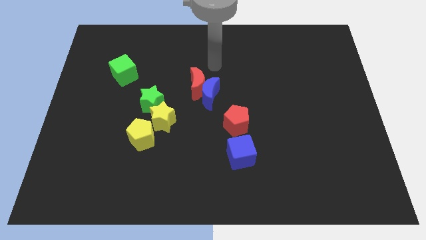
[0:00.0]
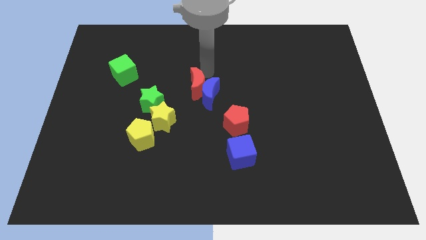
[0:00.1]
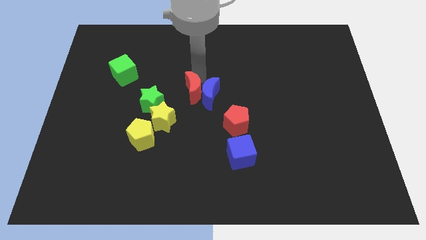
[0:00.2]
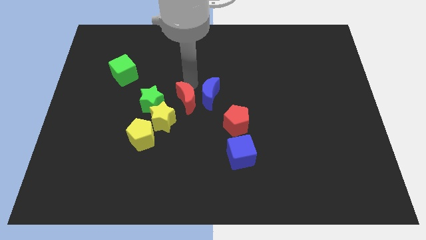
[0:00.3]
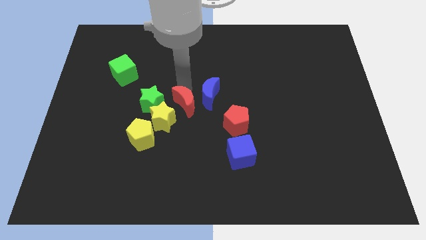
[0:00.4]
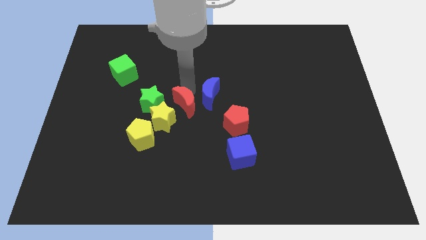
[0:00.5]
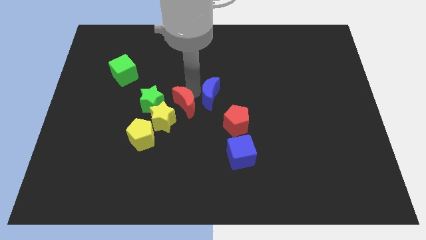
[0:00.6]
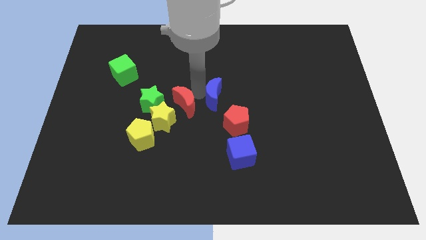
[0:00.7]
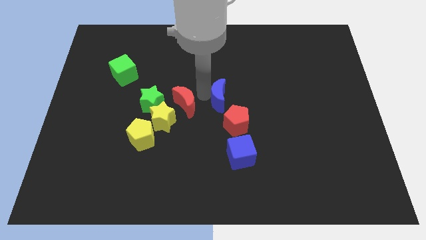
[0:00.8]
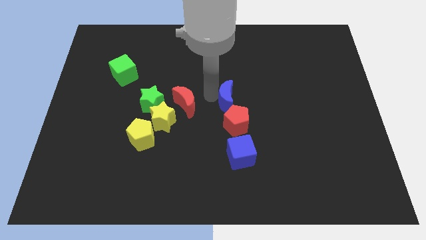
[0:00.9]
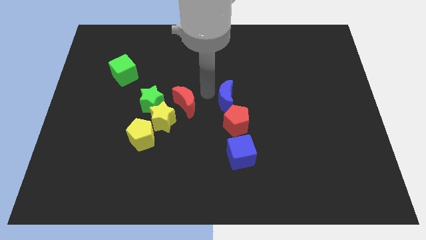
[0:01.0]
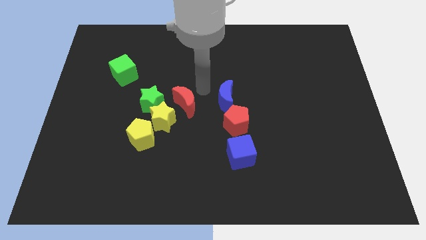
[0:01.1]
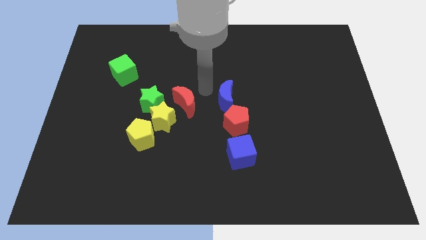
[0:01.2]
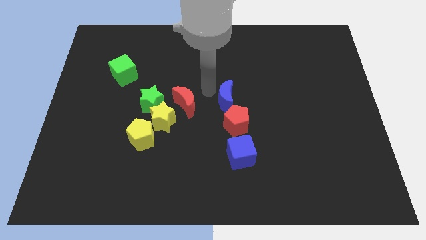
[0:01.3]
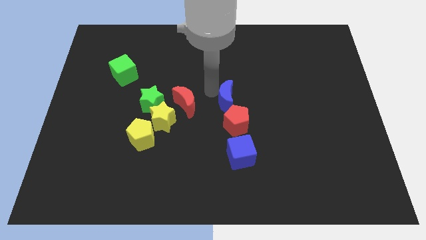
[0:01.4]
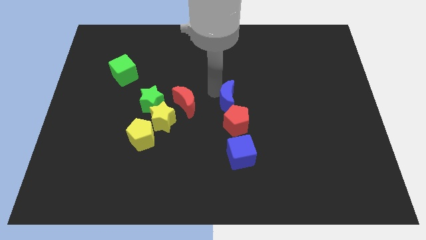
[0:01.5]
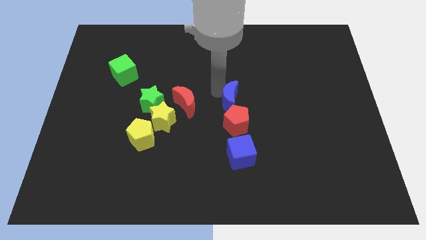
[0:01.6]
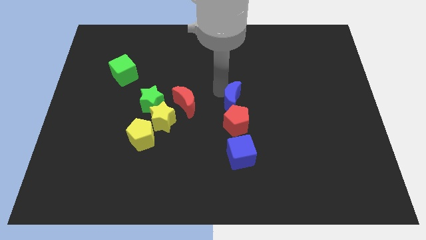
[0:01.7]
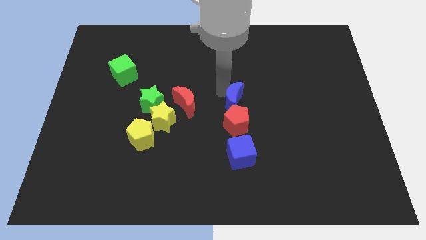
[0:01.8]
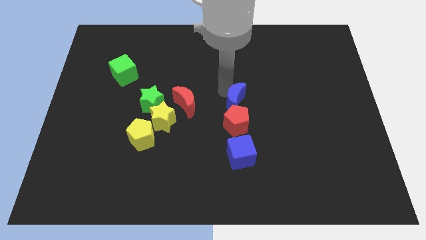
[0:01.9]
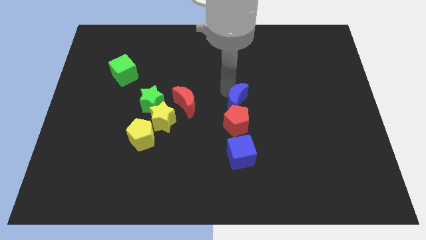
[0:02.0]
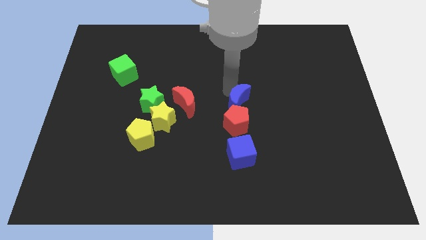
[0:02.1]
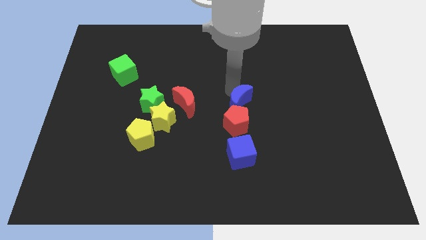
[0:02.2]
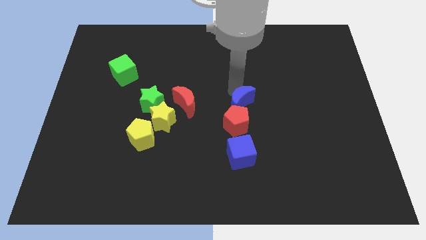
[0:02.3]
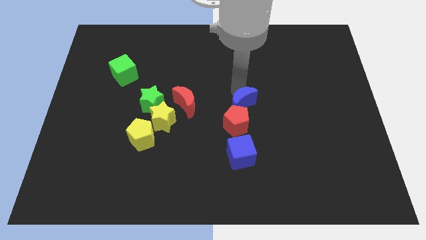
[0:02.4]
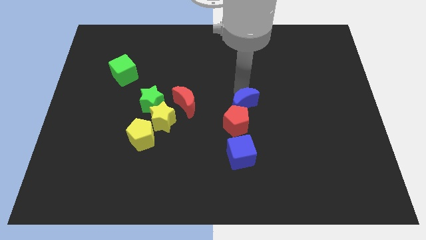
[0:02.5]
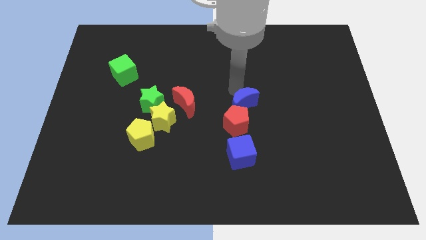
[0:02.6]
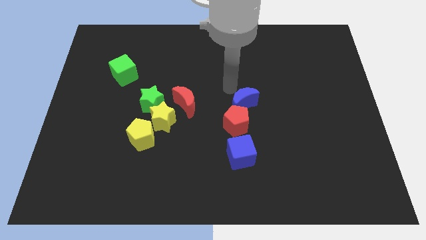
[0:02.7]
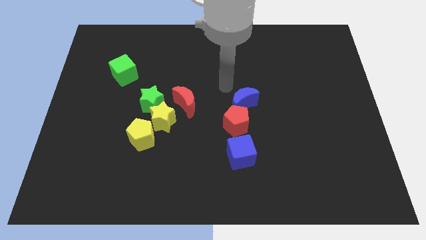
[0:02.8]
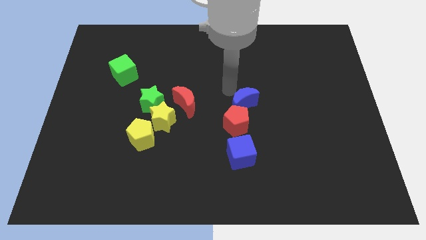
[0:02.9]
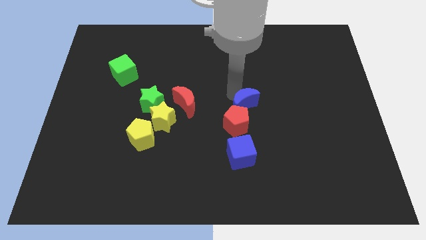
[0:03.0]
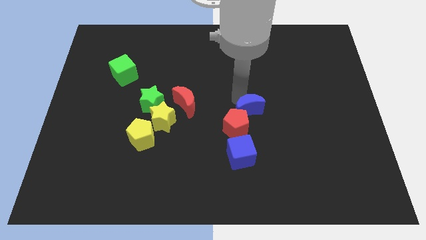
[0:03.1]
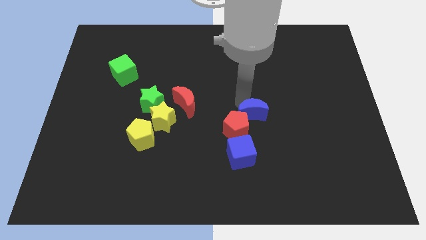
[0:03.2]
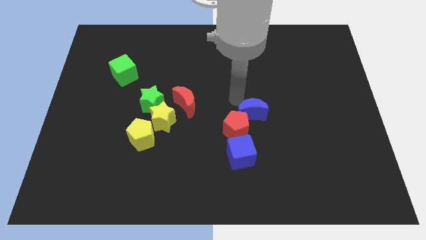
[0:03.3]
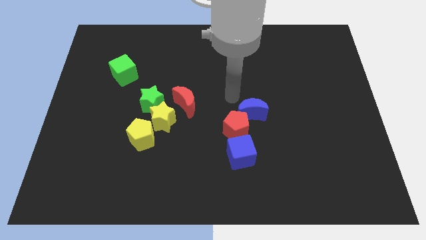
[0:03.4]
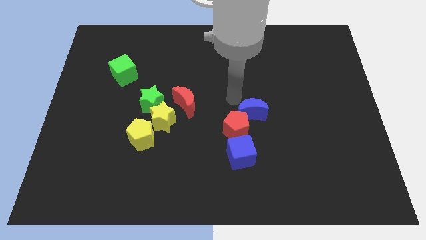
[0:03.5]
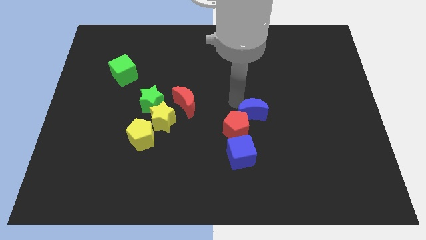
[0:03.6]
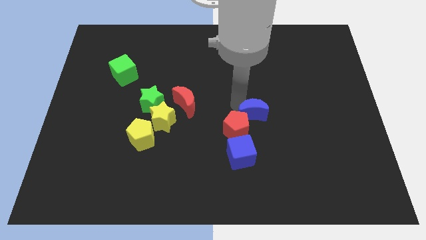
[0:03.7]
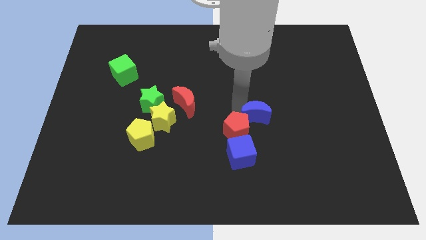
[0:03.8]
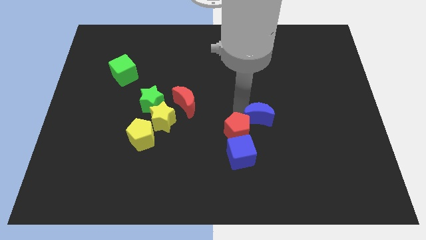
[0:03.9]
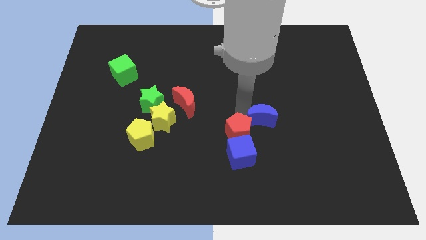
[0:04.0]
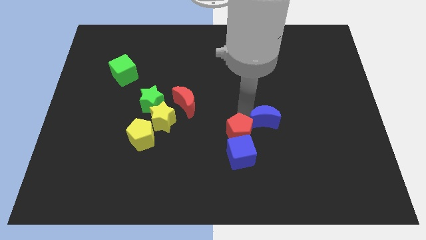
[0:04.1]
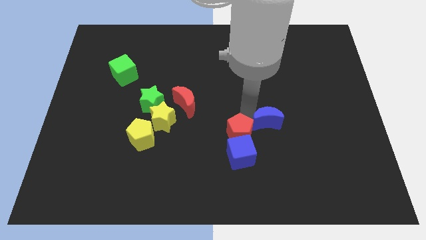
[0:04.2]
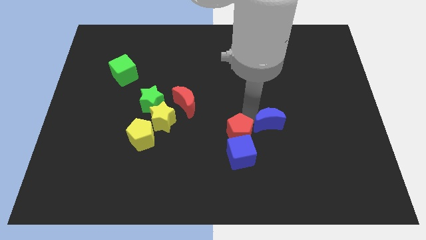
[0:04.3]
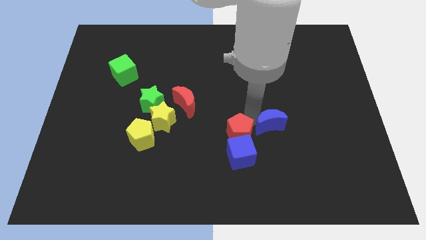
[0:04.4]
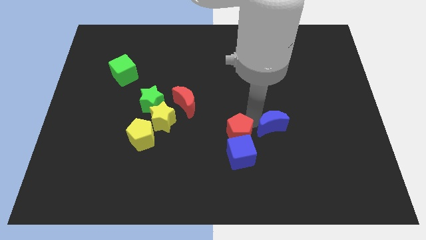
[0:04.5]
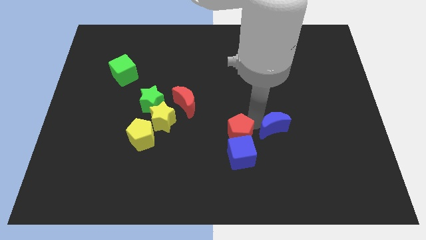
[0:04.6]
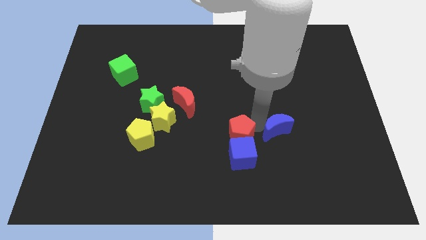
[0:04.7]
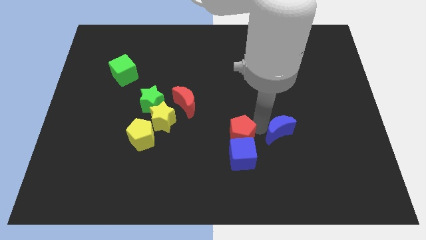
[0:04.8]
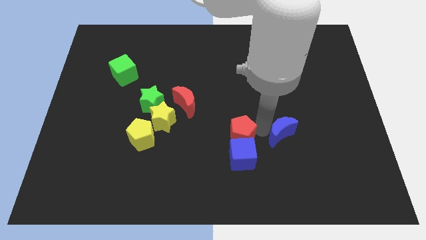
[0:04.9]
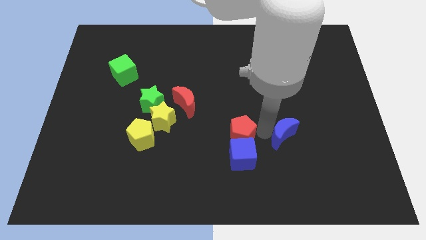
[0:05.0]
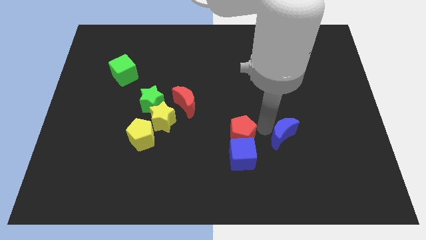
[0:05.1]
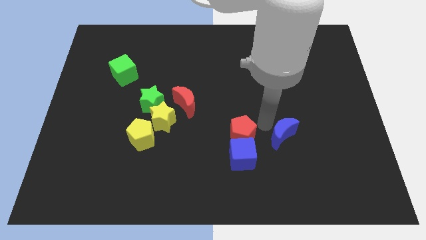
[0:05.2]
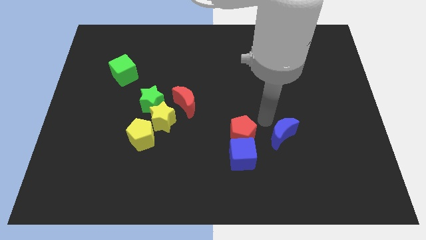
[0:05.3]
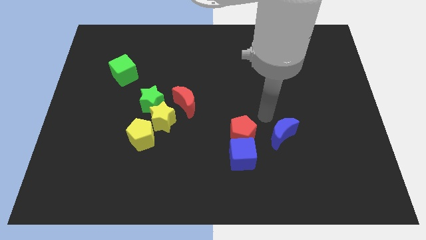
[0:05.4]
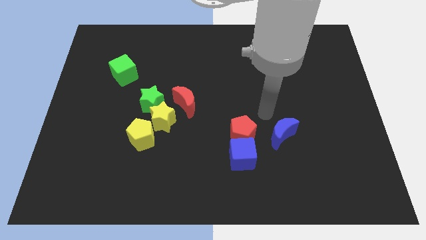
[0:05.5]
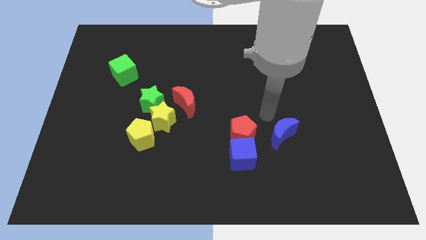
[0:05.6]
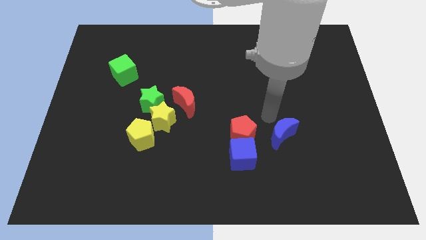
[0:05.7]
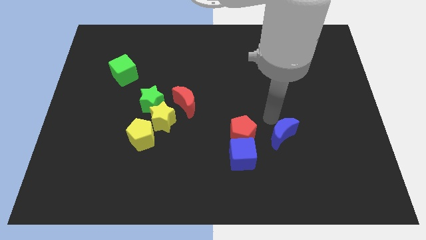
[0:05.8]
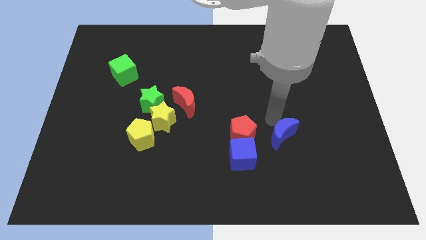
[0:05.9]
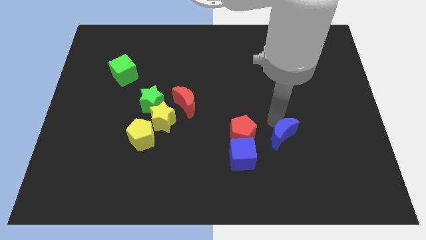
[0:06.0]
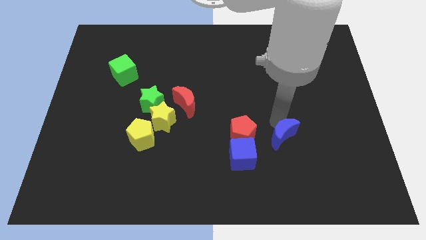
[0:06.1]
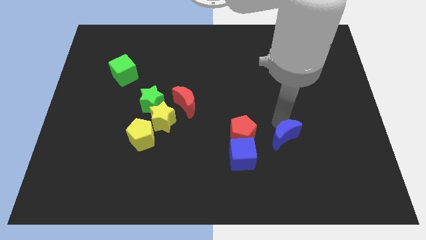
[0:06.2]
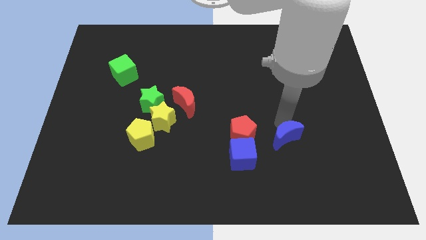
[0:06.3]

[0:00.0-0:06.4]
move the blue moon downwards and then to the right

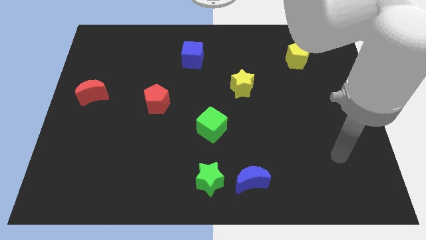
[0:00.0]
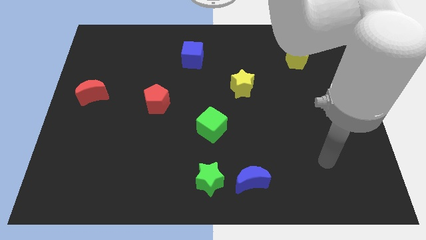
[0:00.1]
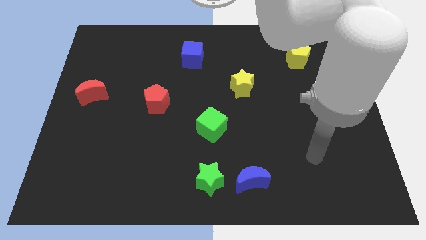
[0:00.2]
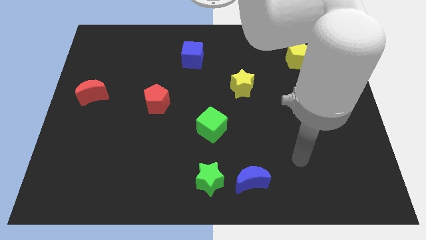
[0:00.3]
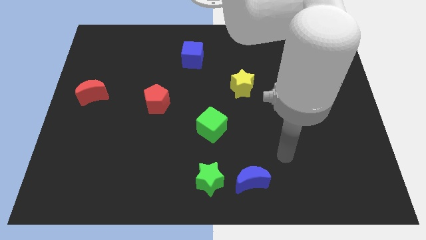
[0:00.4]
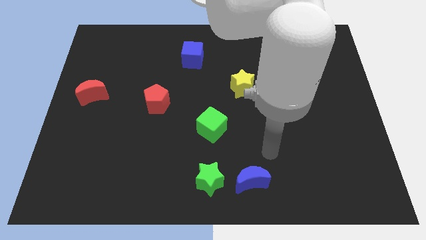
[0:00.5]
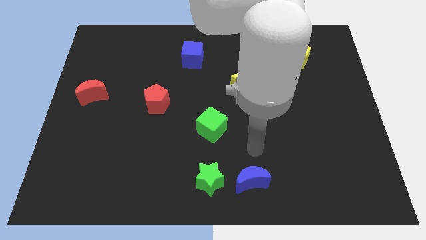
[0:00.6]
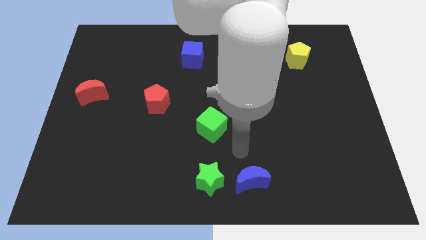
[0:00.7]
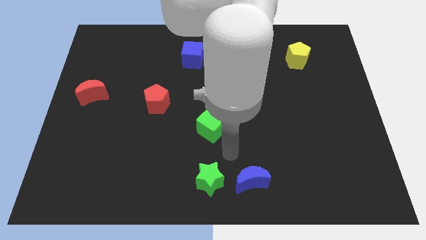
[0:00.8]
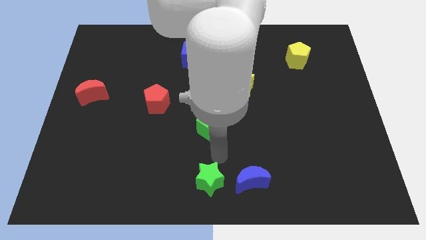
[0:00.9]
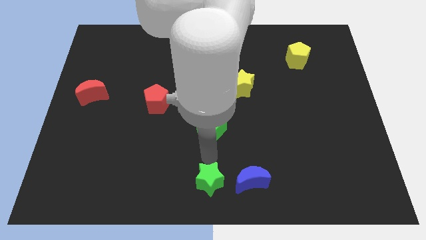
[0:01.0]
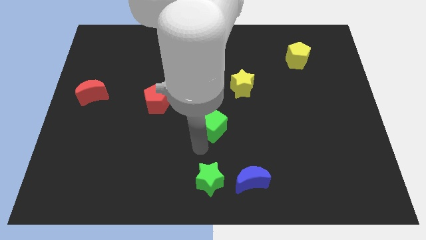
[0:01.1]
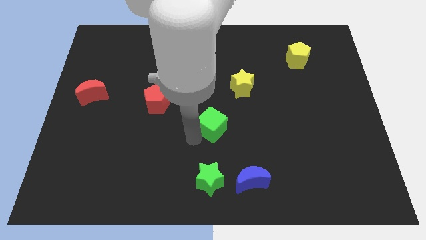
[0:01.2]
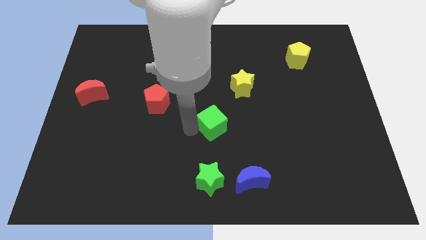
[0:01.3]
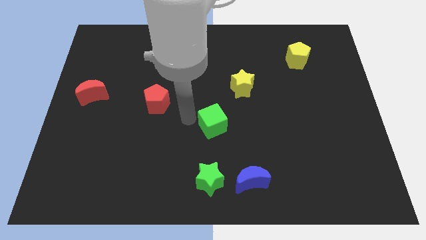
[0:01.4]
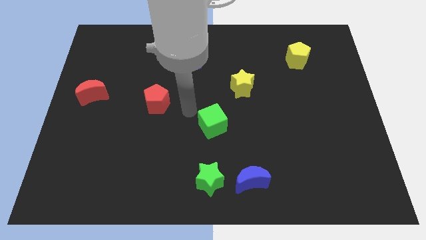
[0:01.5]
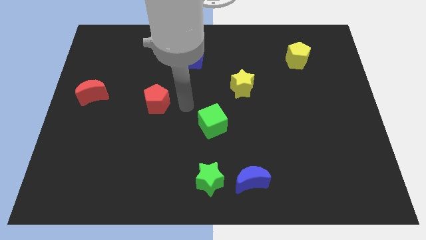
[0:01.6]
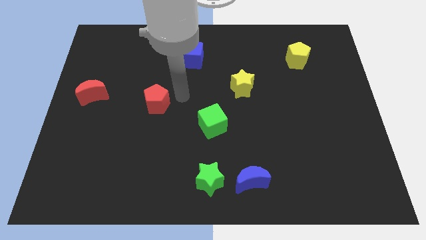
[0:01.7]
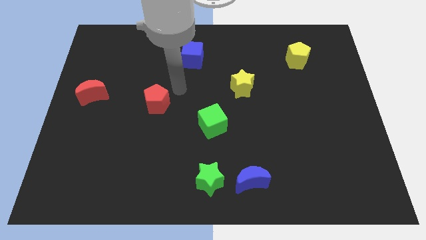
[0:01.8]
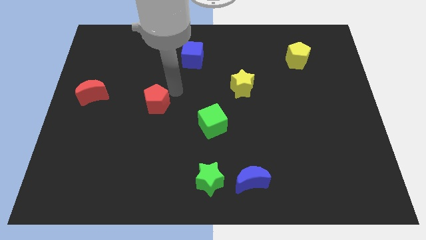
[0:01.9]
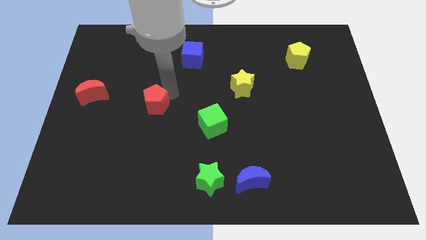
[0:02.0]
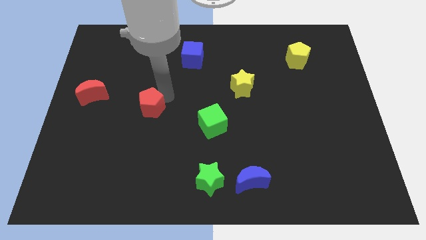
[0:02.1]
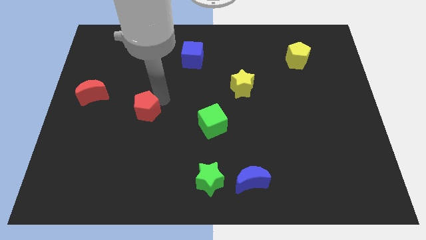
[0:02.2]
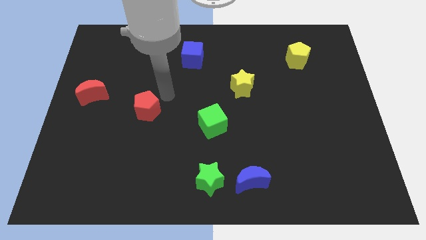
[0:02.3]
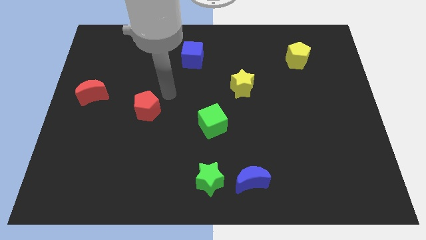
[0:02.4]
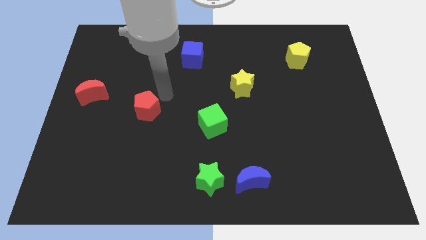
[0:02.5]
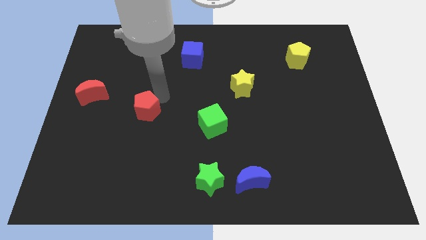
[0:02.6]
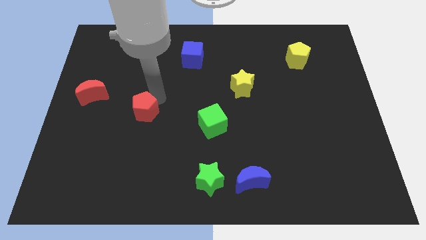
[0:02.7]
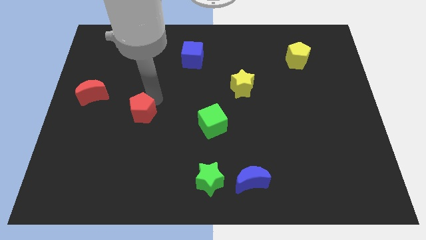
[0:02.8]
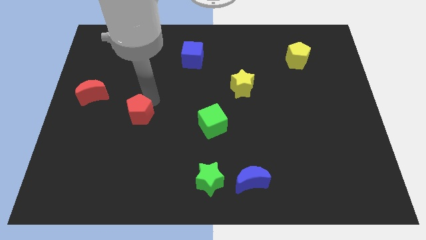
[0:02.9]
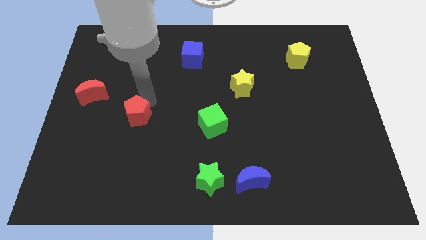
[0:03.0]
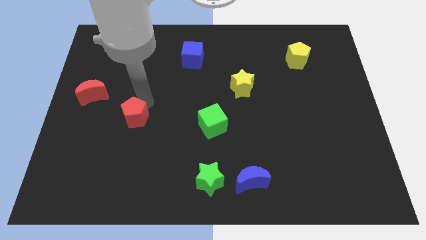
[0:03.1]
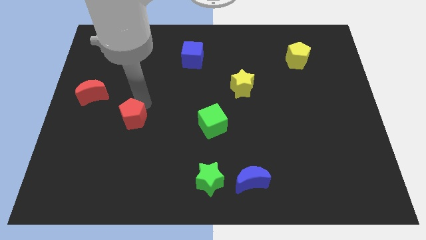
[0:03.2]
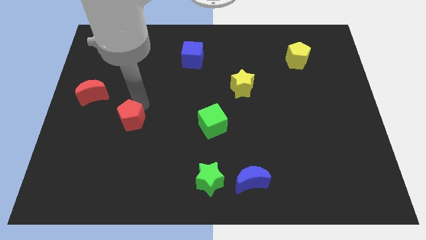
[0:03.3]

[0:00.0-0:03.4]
push the red pentagon diagonally downwards and to the left slightly
